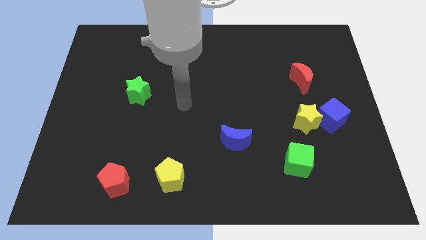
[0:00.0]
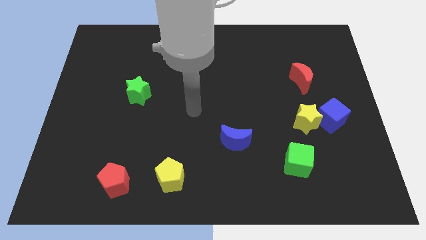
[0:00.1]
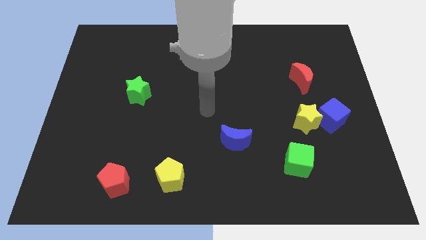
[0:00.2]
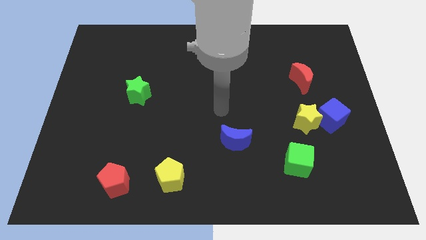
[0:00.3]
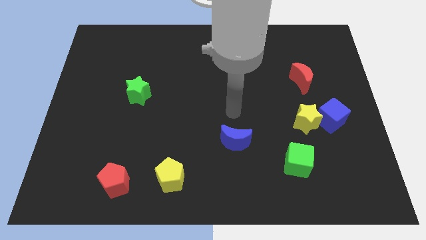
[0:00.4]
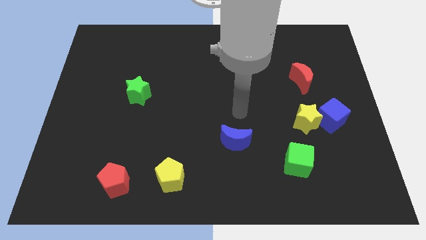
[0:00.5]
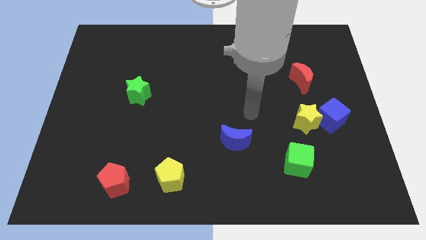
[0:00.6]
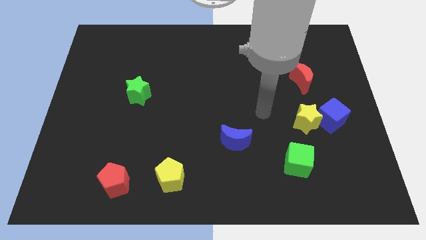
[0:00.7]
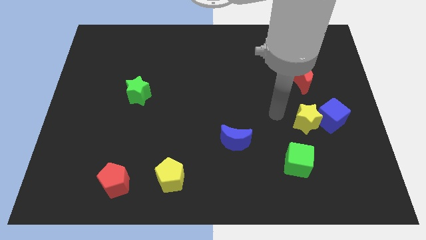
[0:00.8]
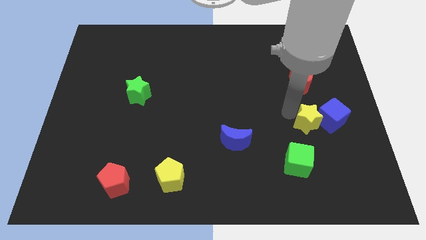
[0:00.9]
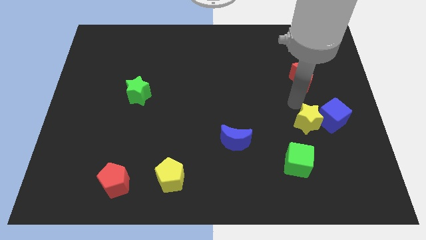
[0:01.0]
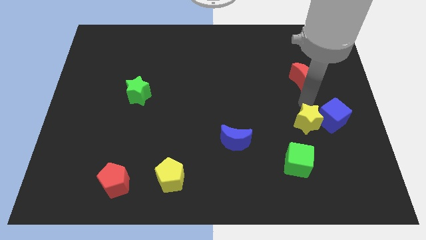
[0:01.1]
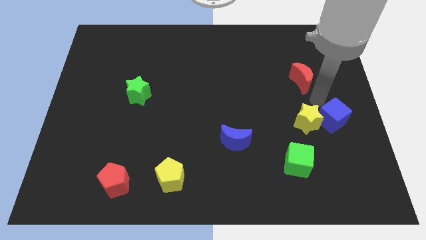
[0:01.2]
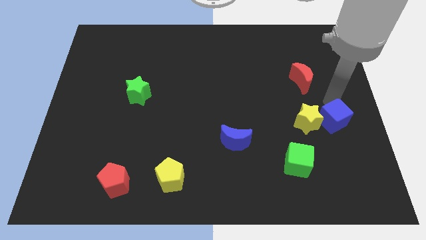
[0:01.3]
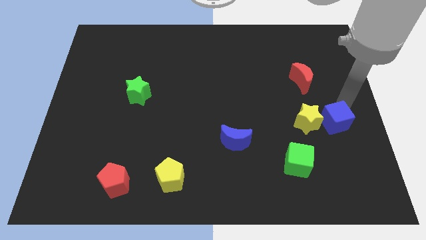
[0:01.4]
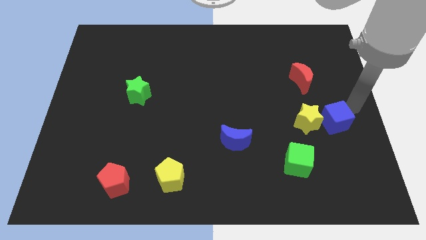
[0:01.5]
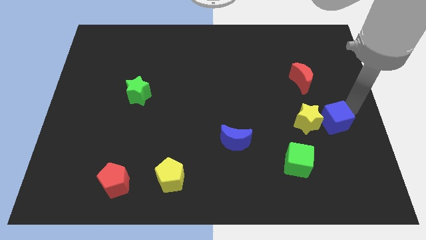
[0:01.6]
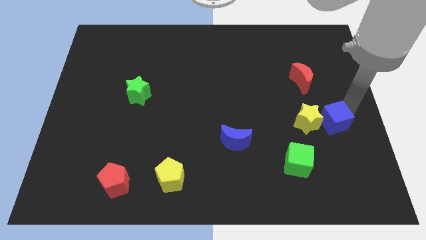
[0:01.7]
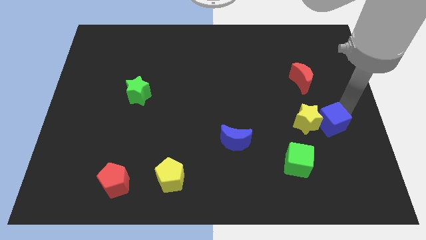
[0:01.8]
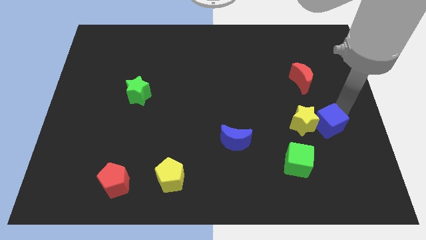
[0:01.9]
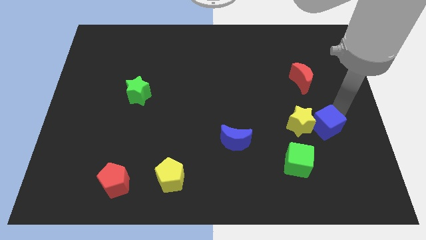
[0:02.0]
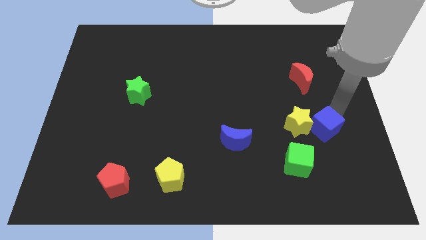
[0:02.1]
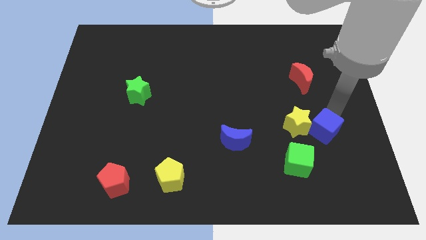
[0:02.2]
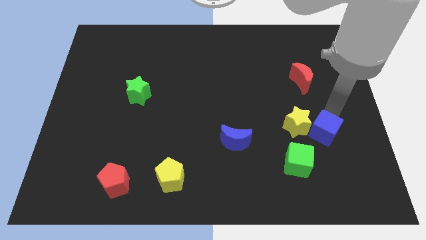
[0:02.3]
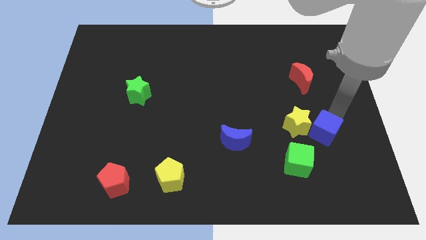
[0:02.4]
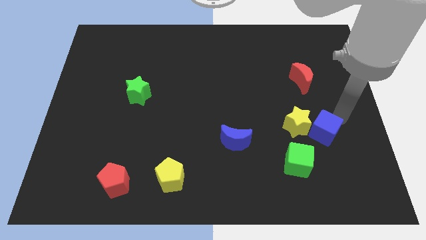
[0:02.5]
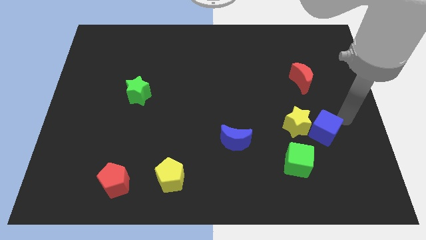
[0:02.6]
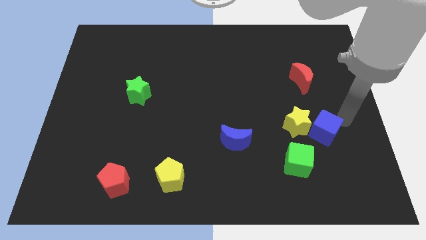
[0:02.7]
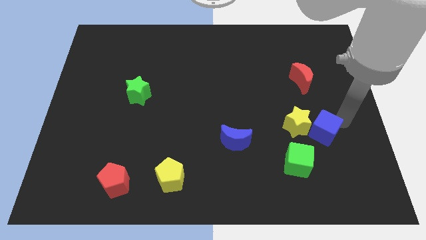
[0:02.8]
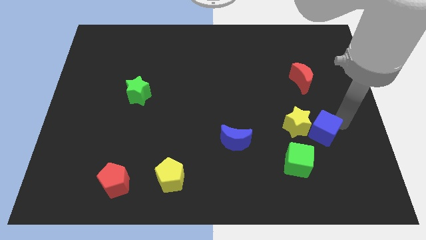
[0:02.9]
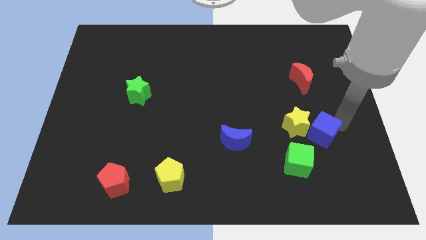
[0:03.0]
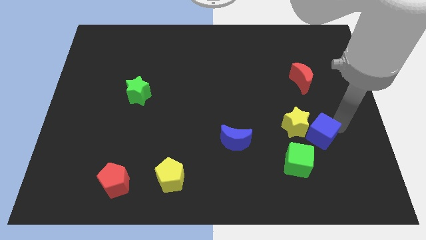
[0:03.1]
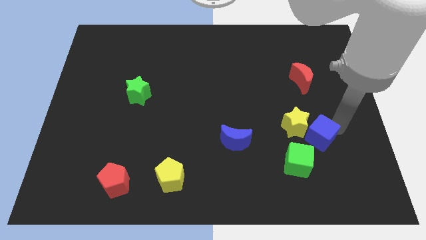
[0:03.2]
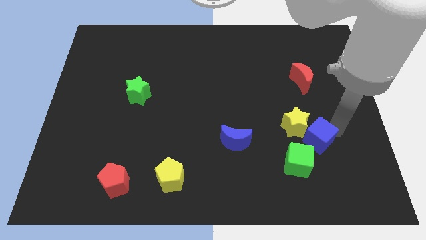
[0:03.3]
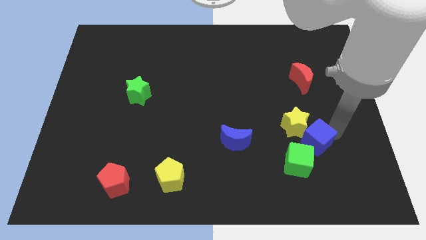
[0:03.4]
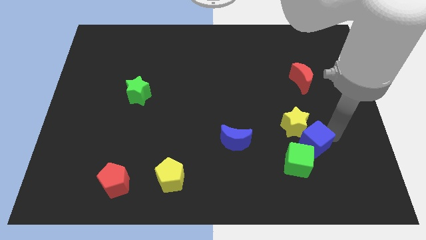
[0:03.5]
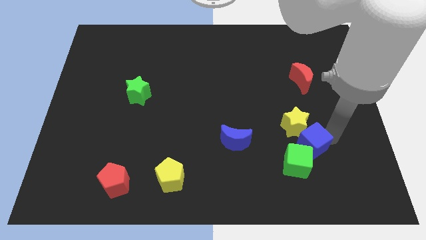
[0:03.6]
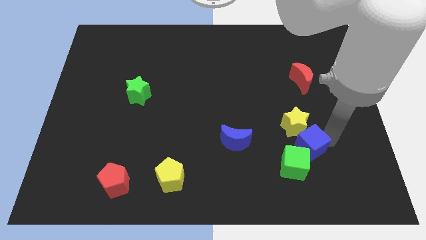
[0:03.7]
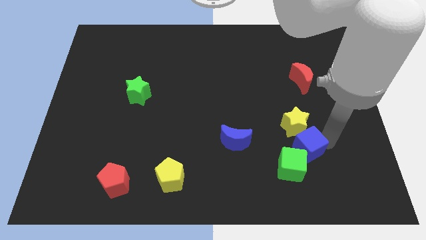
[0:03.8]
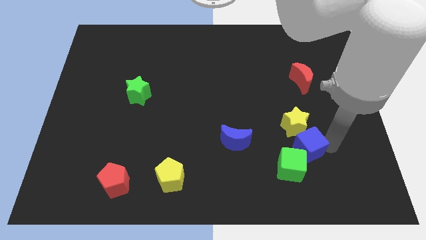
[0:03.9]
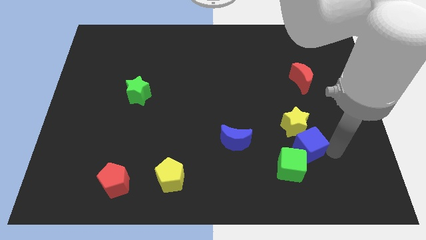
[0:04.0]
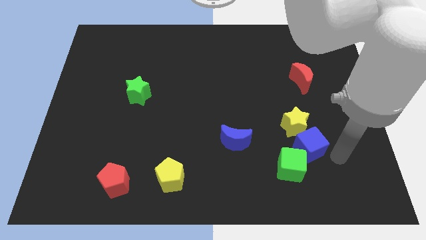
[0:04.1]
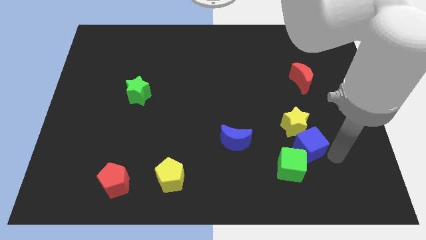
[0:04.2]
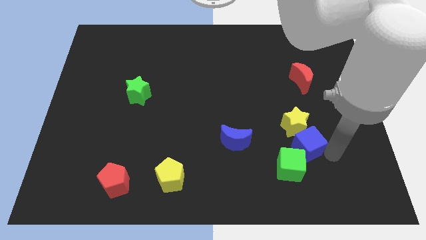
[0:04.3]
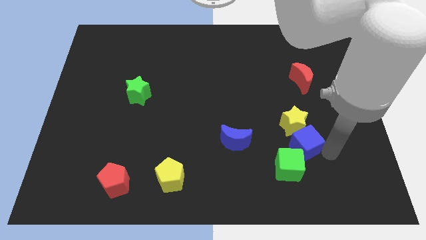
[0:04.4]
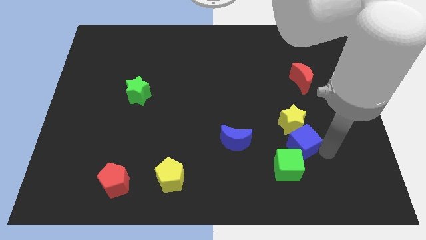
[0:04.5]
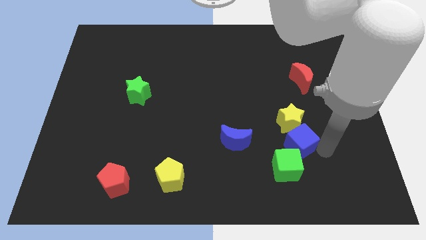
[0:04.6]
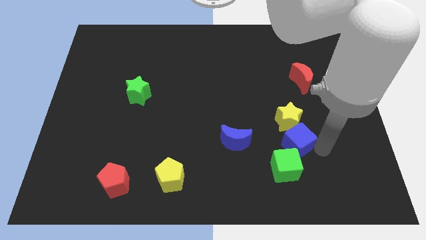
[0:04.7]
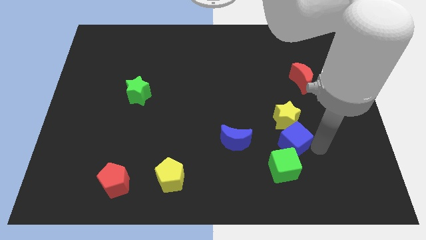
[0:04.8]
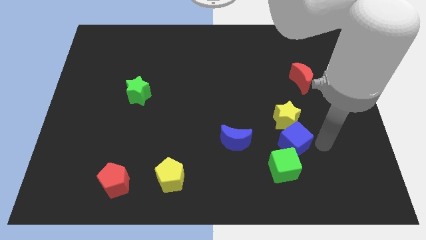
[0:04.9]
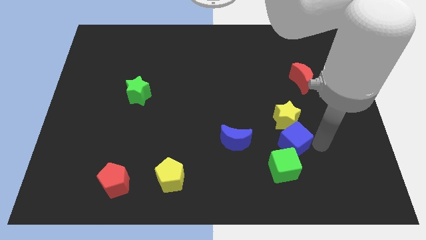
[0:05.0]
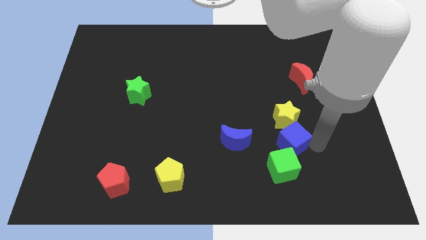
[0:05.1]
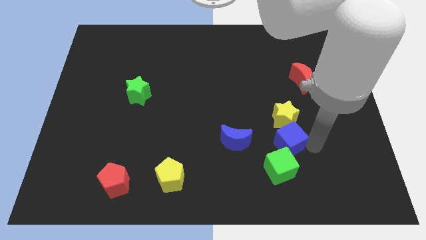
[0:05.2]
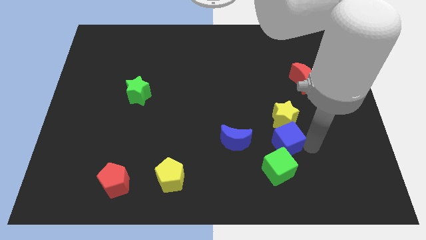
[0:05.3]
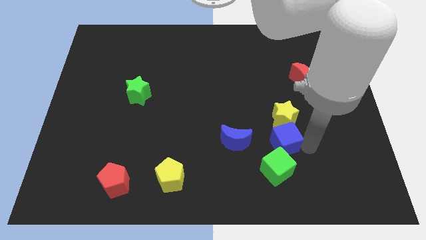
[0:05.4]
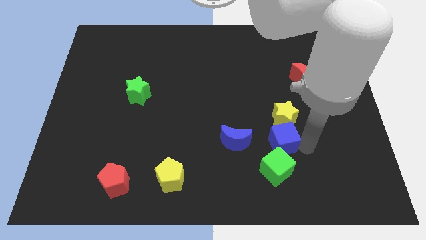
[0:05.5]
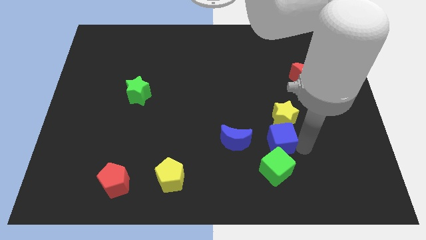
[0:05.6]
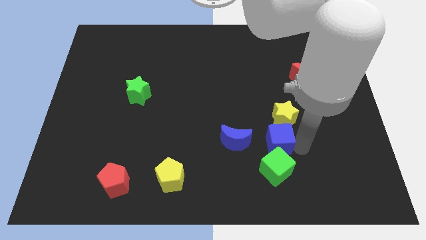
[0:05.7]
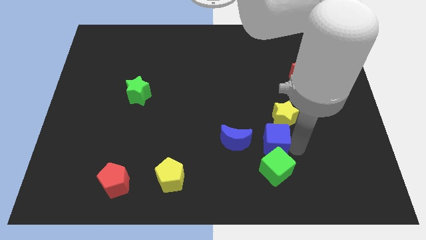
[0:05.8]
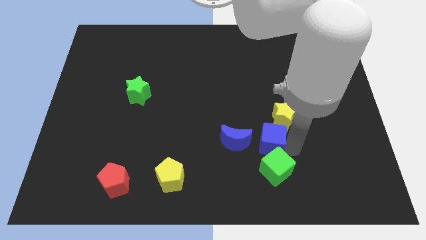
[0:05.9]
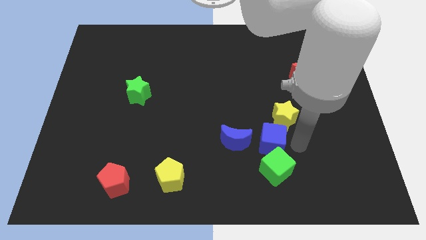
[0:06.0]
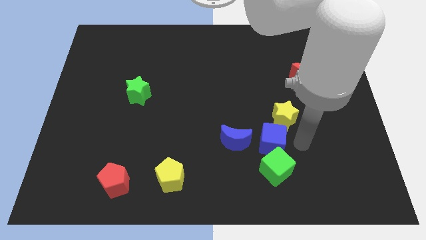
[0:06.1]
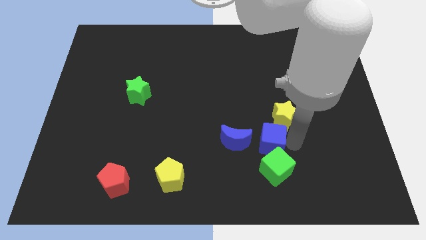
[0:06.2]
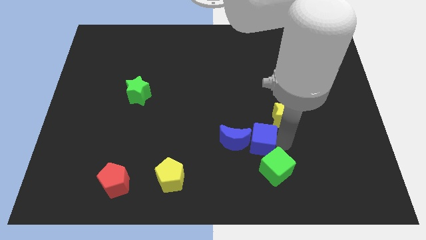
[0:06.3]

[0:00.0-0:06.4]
slide the blue cube next to the blue moon
